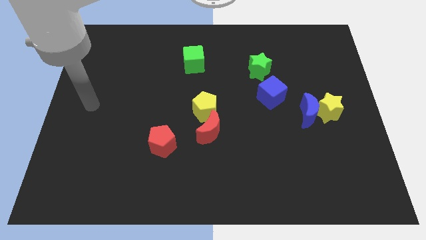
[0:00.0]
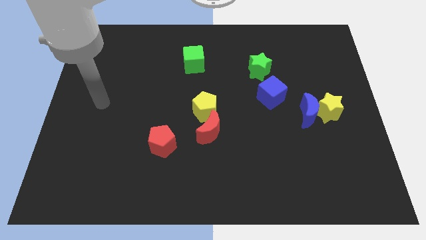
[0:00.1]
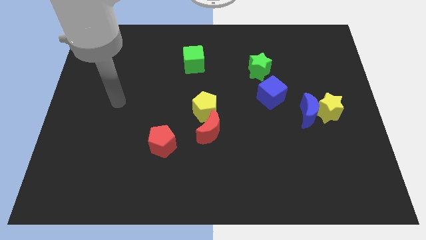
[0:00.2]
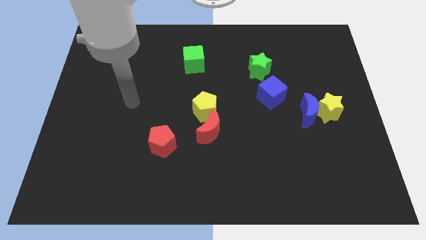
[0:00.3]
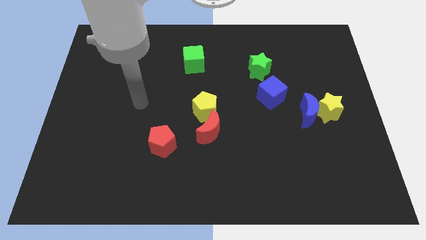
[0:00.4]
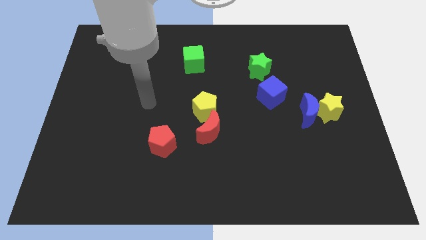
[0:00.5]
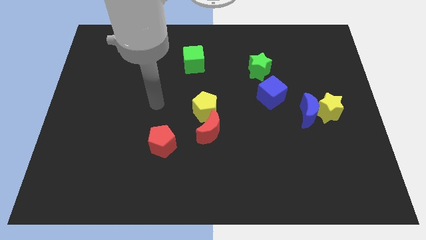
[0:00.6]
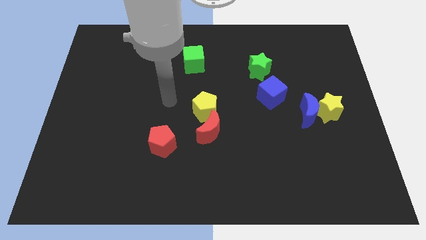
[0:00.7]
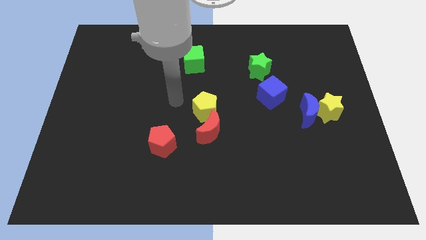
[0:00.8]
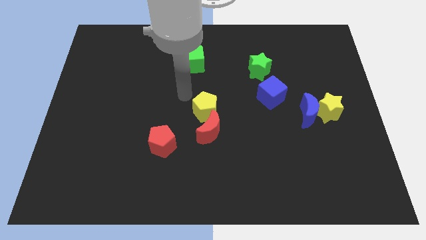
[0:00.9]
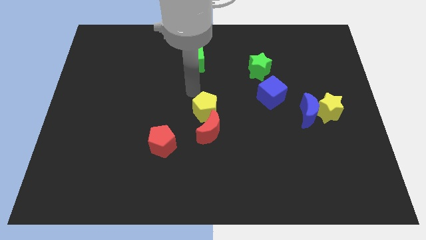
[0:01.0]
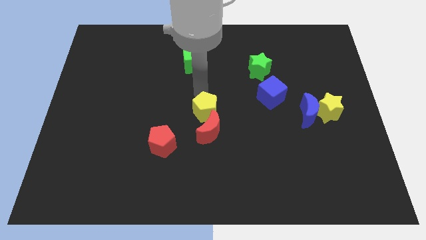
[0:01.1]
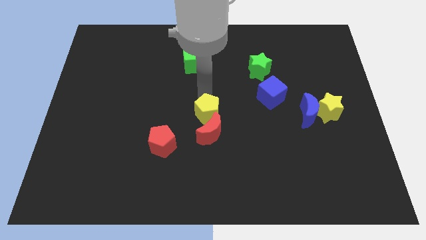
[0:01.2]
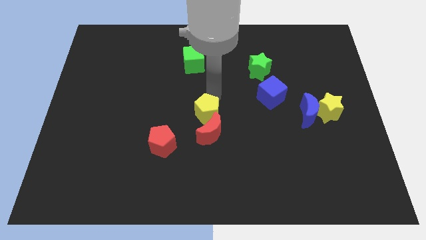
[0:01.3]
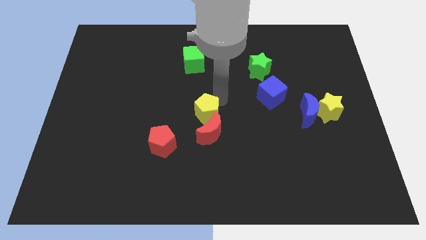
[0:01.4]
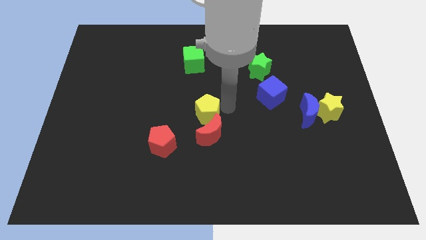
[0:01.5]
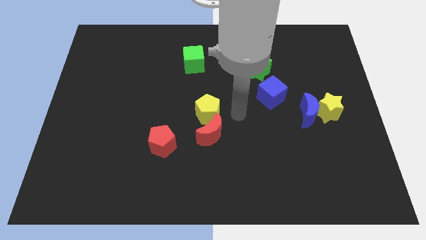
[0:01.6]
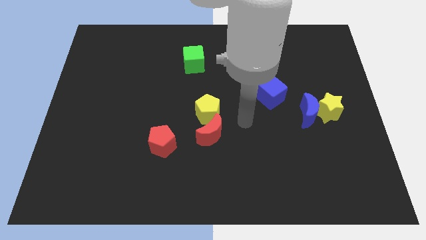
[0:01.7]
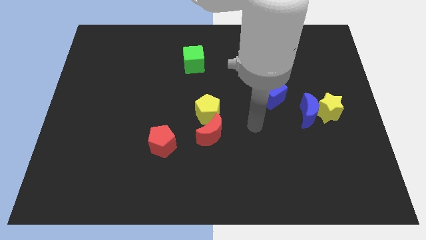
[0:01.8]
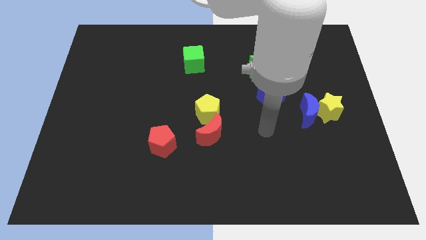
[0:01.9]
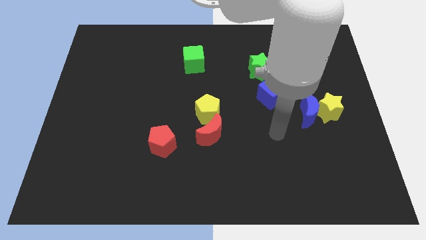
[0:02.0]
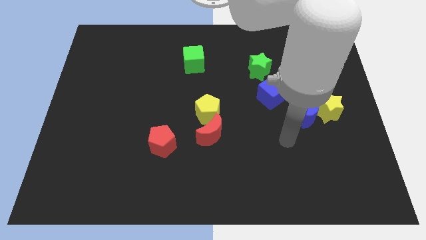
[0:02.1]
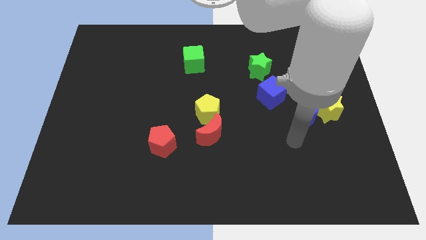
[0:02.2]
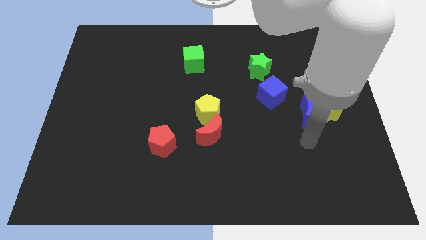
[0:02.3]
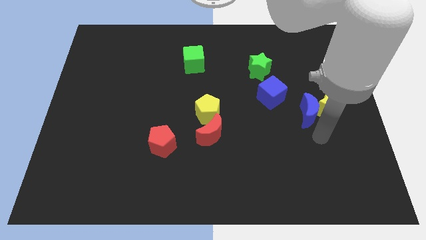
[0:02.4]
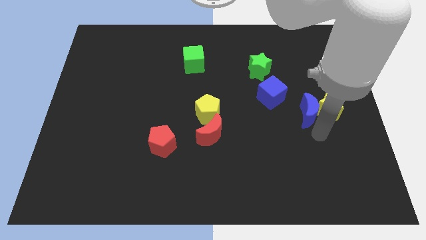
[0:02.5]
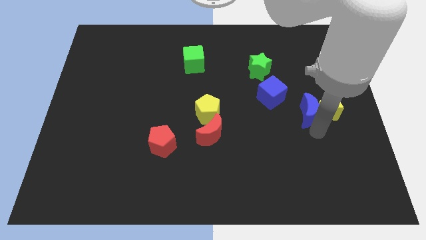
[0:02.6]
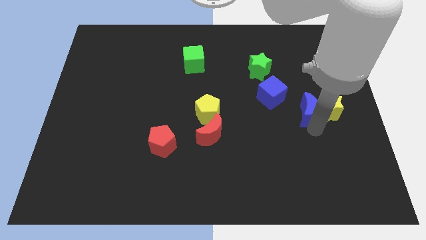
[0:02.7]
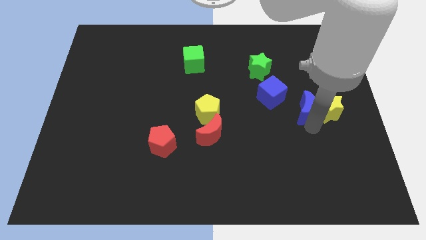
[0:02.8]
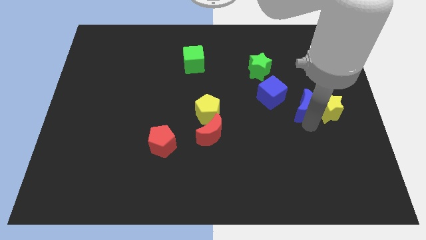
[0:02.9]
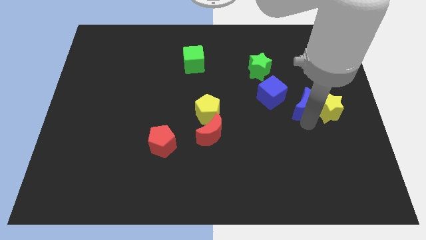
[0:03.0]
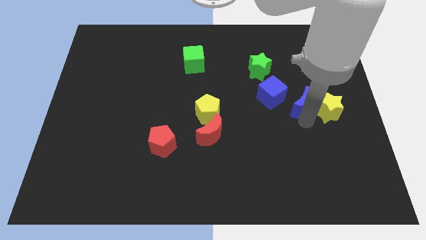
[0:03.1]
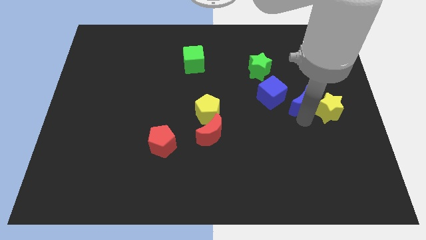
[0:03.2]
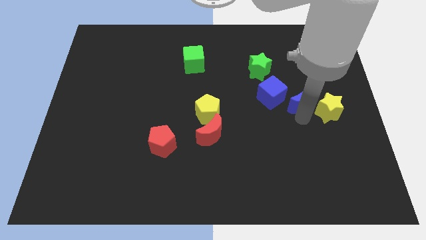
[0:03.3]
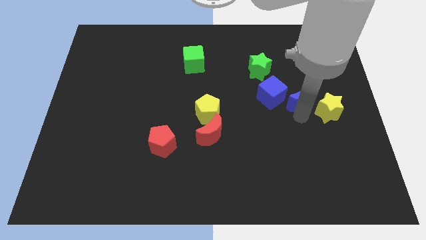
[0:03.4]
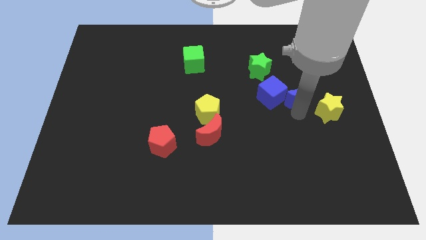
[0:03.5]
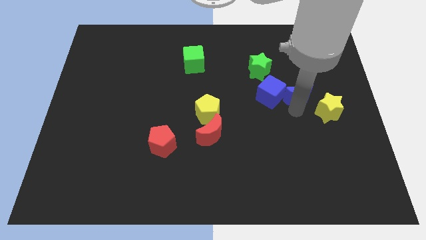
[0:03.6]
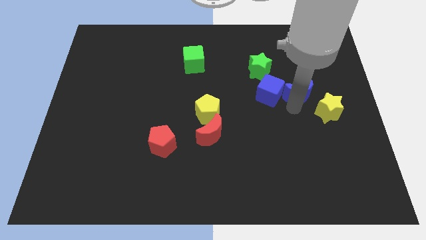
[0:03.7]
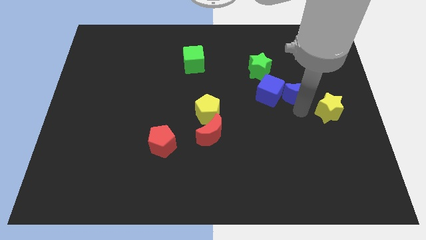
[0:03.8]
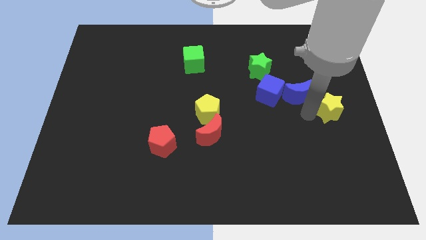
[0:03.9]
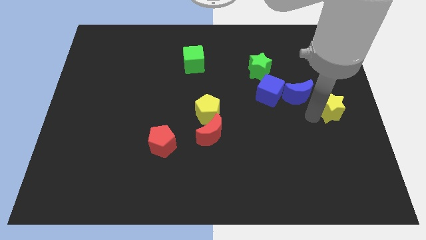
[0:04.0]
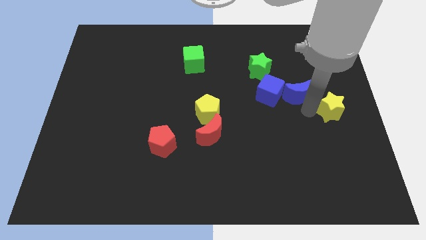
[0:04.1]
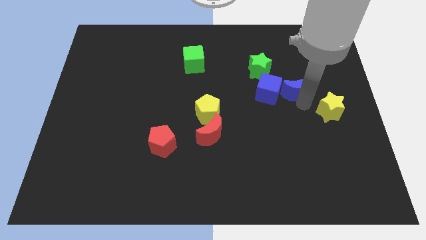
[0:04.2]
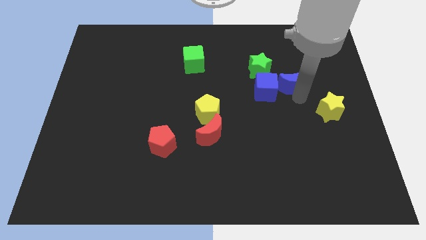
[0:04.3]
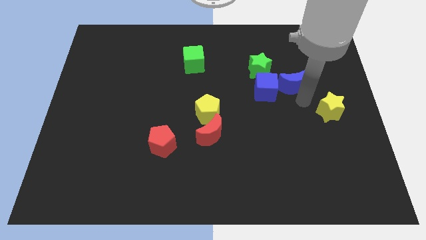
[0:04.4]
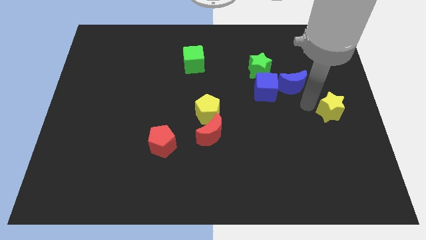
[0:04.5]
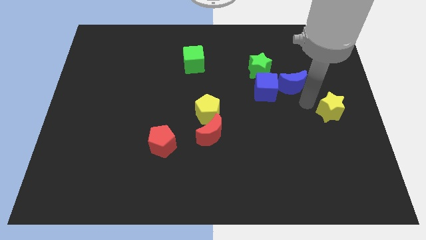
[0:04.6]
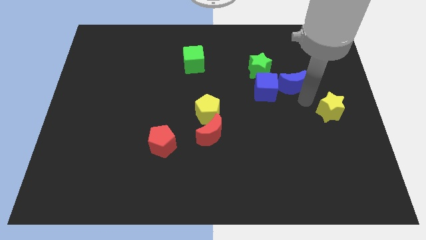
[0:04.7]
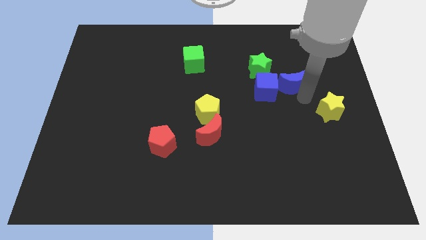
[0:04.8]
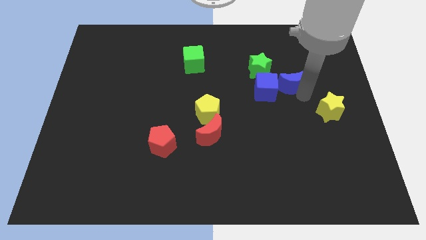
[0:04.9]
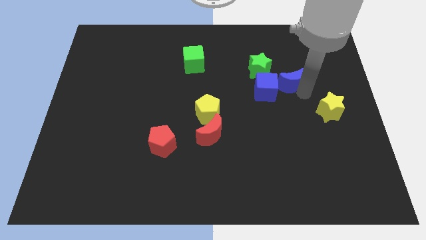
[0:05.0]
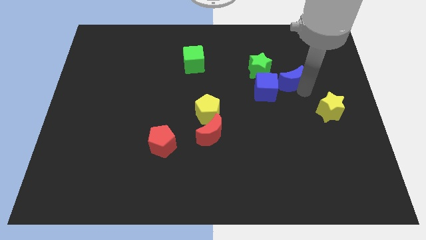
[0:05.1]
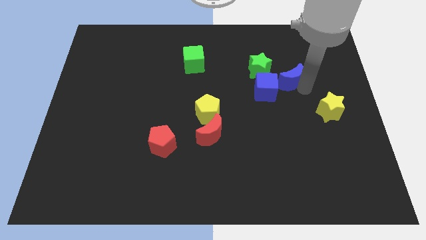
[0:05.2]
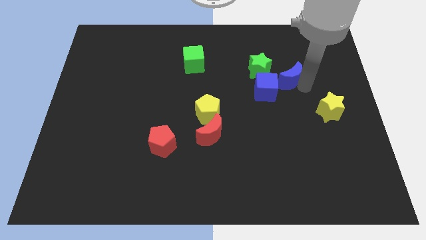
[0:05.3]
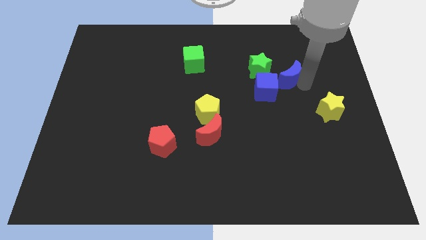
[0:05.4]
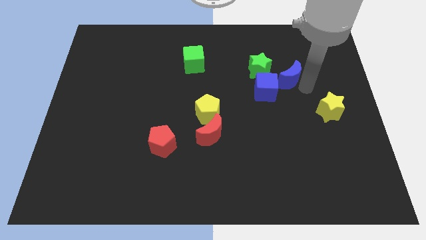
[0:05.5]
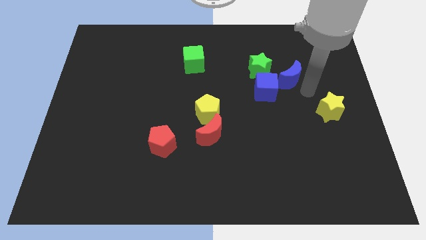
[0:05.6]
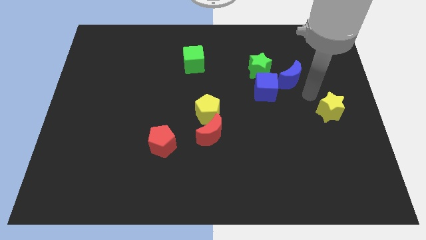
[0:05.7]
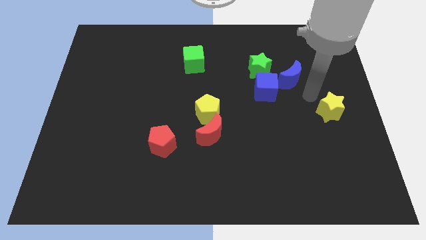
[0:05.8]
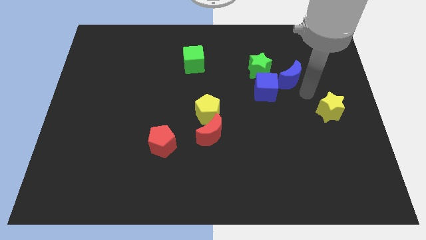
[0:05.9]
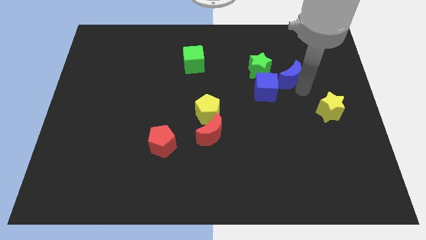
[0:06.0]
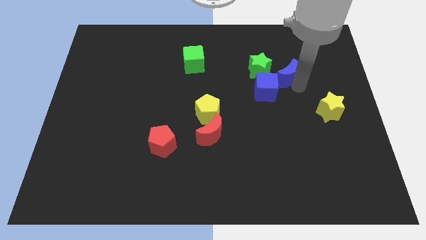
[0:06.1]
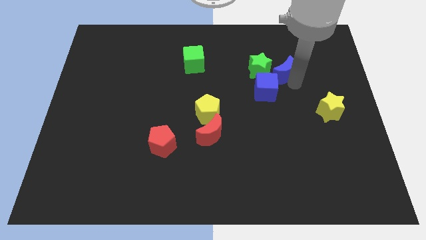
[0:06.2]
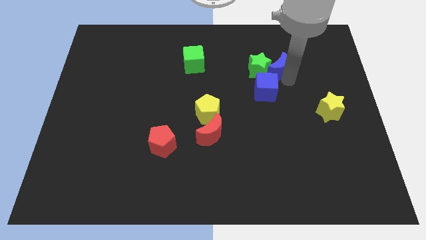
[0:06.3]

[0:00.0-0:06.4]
push the blue moon diagonally up and to the right of the green star
